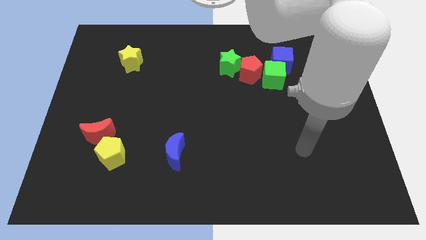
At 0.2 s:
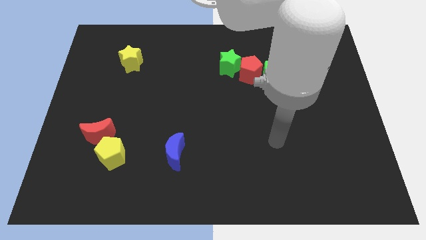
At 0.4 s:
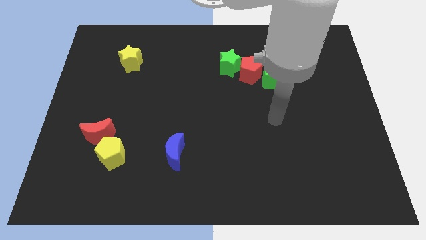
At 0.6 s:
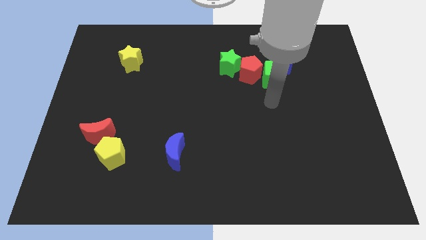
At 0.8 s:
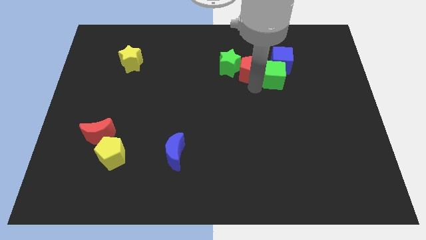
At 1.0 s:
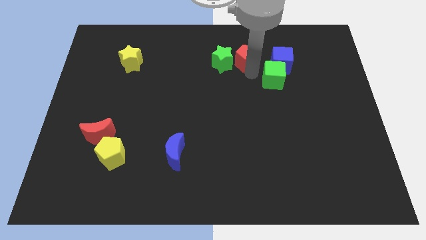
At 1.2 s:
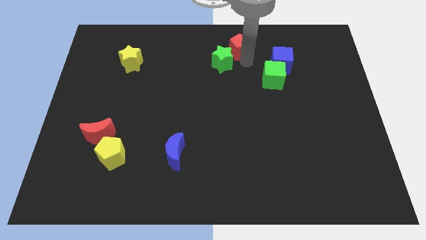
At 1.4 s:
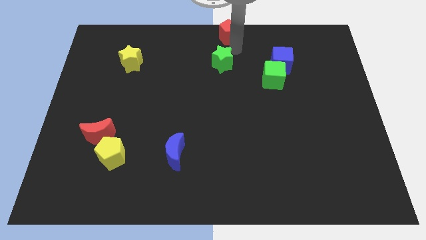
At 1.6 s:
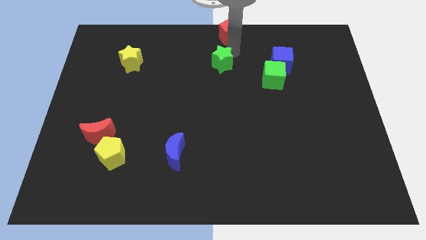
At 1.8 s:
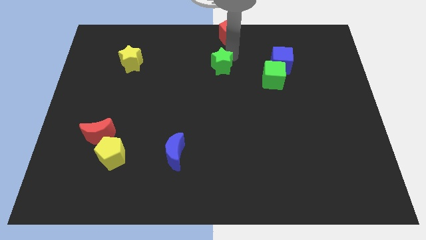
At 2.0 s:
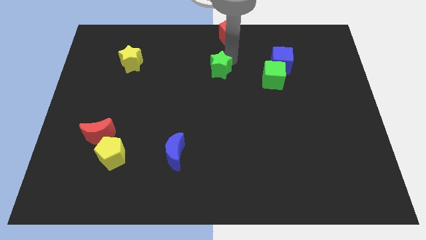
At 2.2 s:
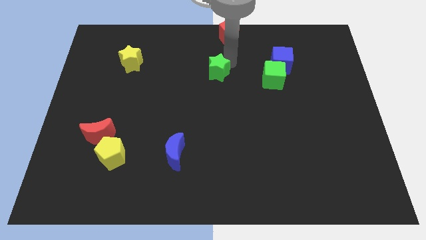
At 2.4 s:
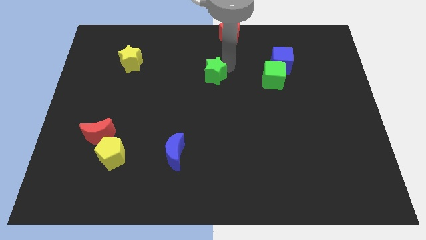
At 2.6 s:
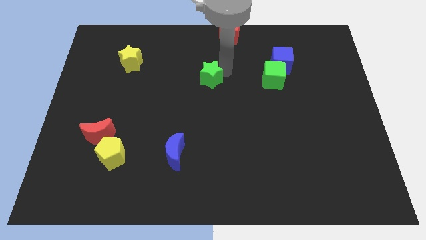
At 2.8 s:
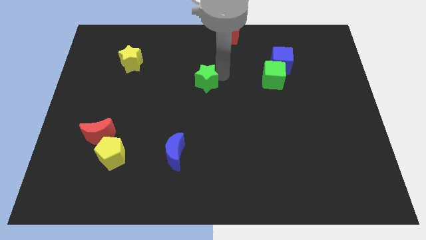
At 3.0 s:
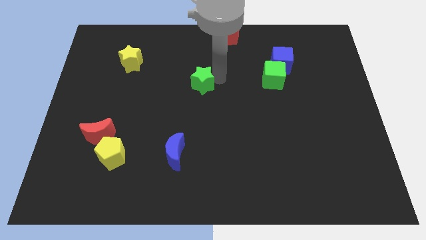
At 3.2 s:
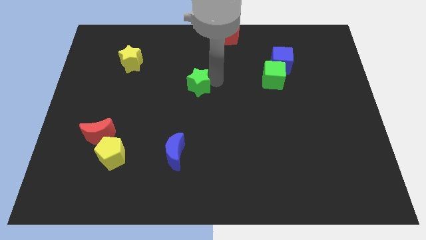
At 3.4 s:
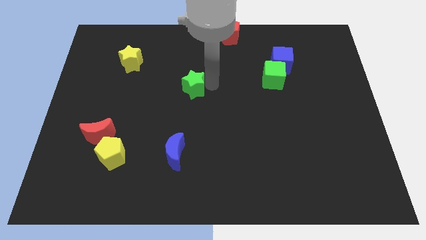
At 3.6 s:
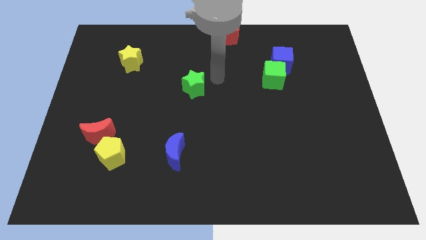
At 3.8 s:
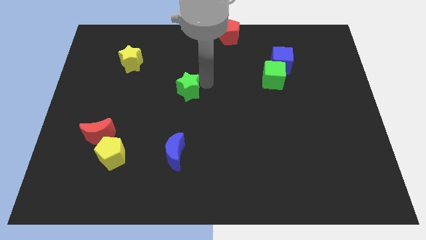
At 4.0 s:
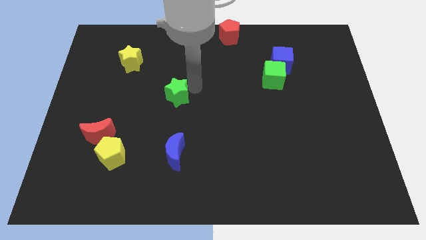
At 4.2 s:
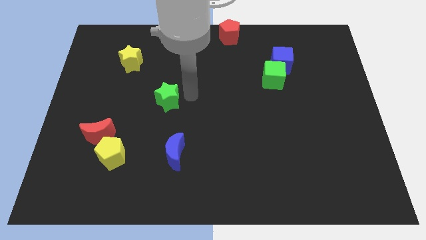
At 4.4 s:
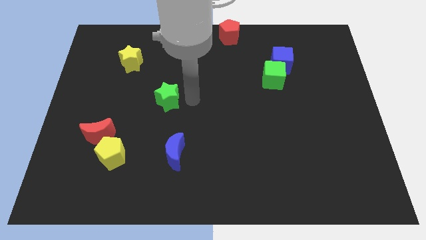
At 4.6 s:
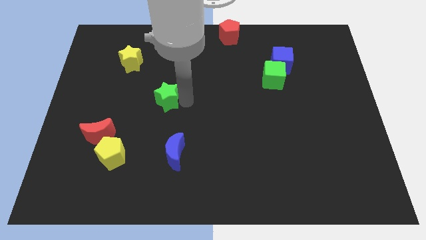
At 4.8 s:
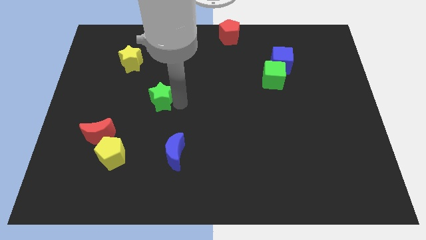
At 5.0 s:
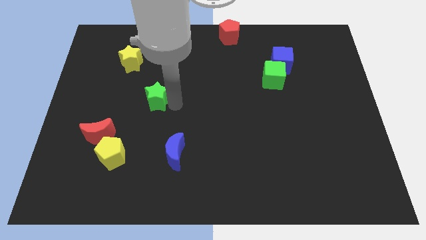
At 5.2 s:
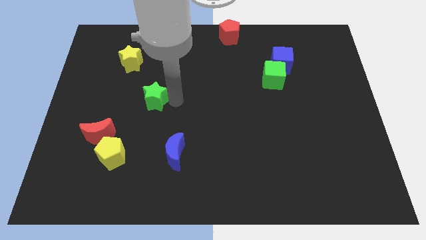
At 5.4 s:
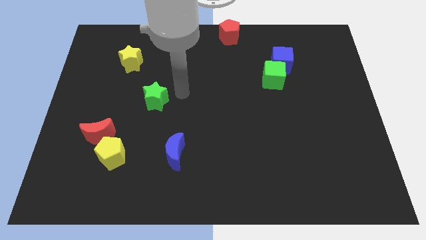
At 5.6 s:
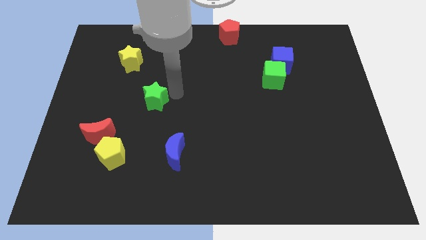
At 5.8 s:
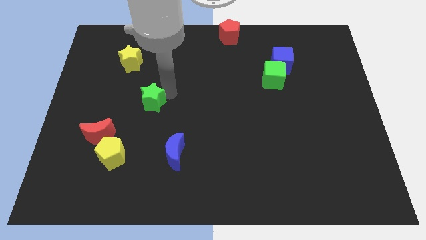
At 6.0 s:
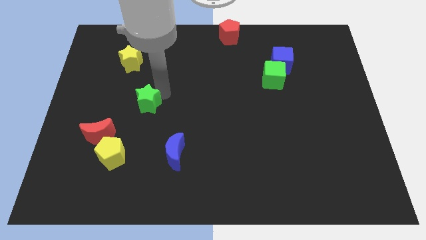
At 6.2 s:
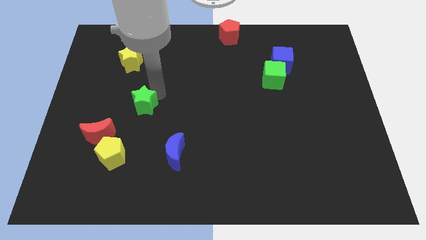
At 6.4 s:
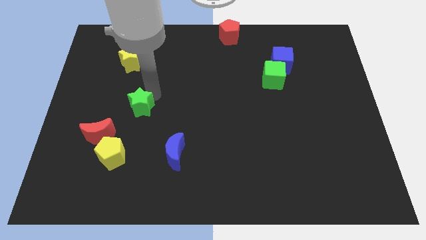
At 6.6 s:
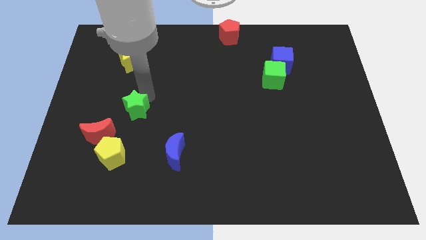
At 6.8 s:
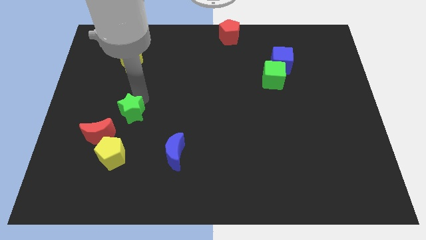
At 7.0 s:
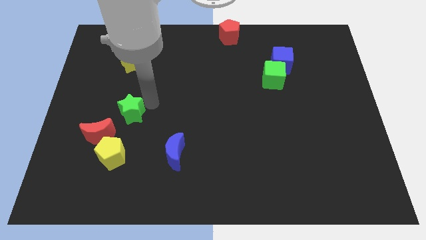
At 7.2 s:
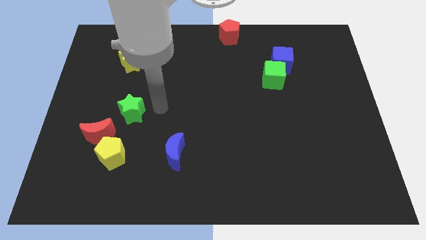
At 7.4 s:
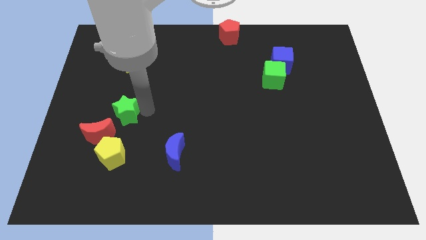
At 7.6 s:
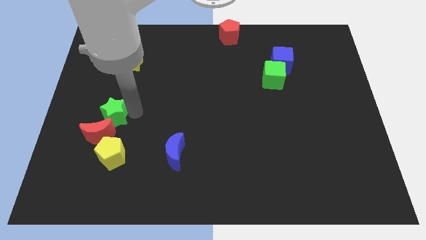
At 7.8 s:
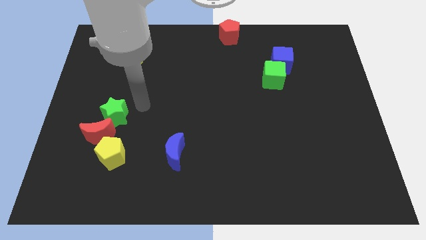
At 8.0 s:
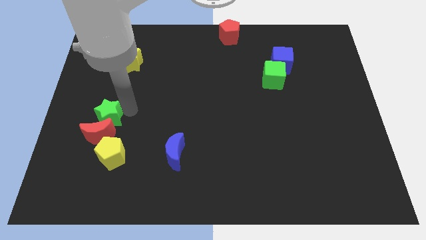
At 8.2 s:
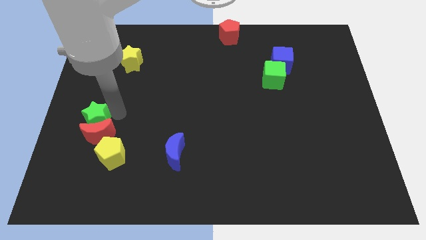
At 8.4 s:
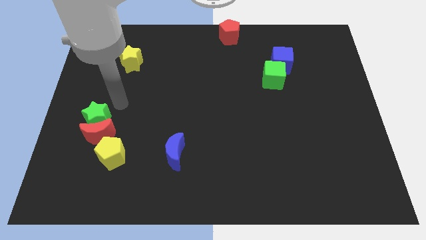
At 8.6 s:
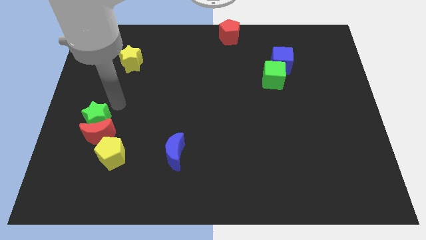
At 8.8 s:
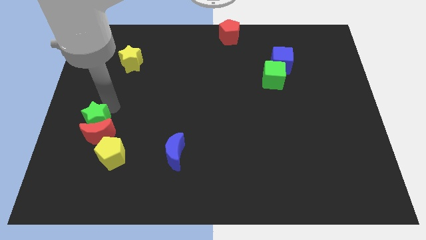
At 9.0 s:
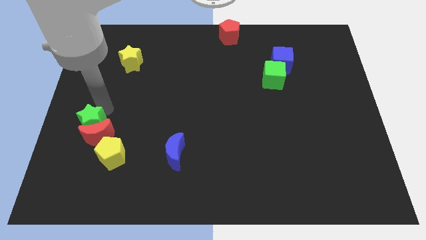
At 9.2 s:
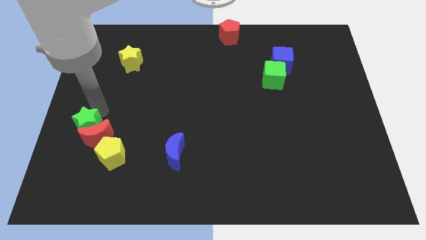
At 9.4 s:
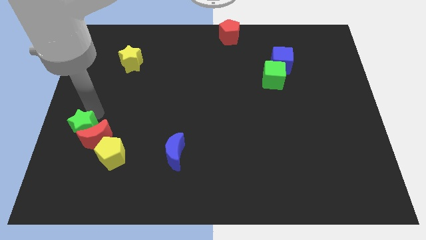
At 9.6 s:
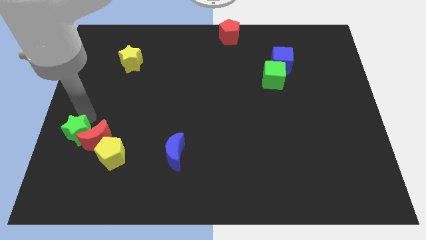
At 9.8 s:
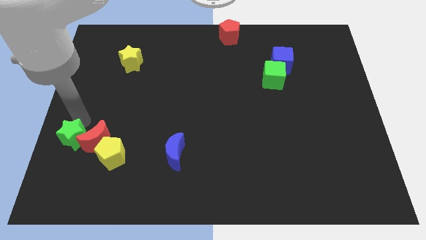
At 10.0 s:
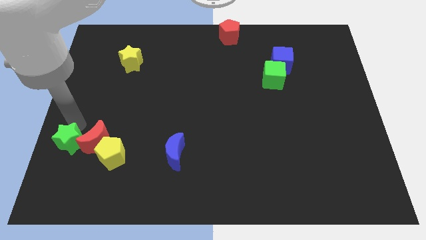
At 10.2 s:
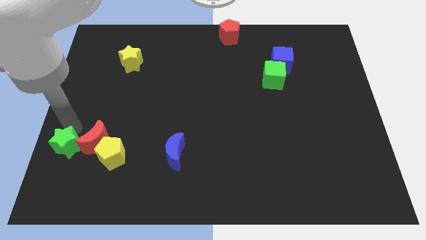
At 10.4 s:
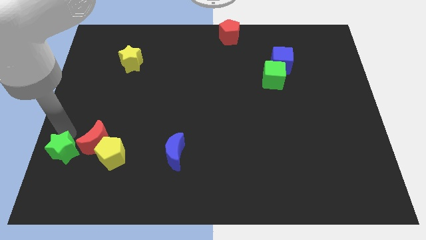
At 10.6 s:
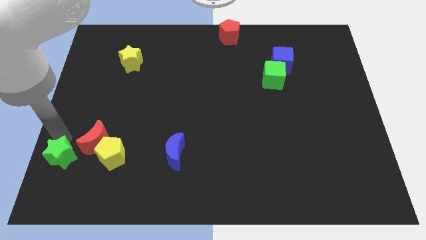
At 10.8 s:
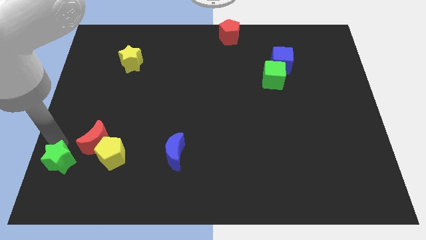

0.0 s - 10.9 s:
put the green star to the bottom left corner
